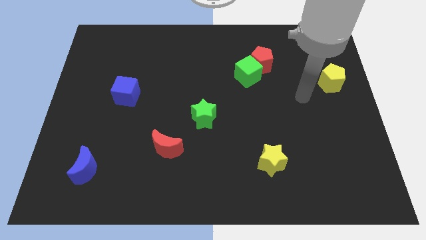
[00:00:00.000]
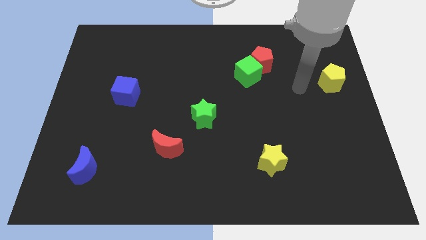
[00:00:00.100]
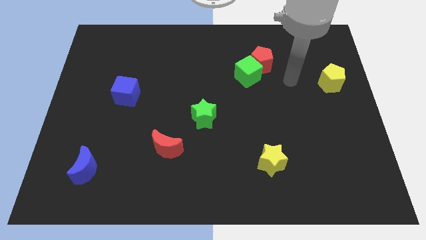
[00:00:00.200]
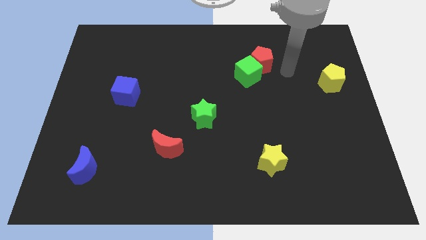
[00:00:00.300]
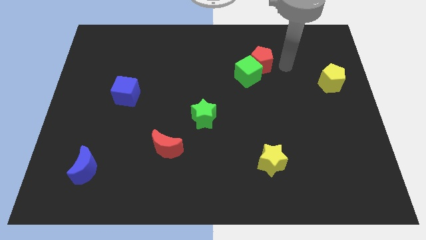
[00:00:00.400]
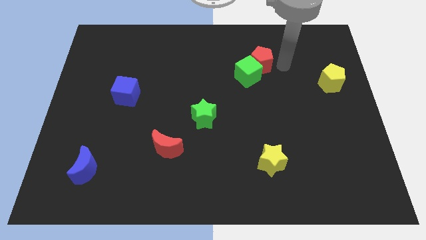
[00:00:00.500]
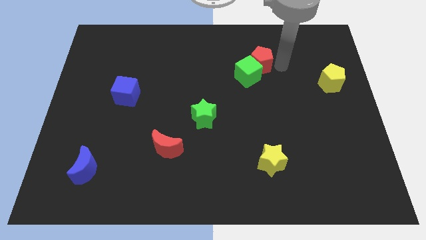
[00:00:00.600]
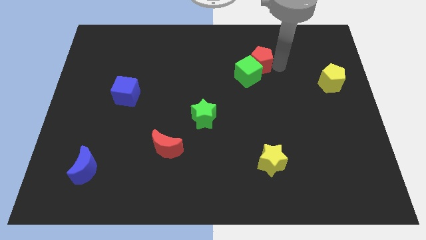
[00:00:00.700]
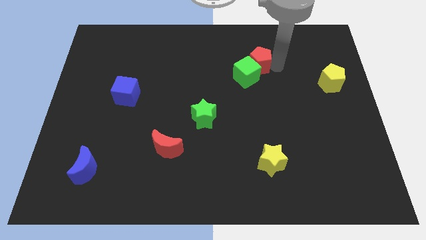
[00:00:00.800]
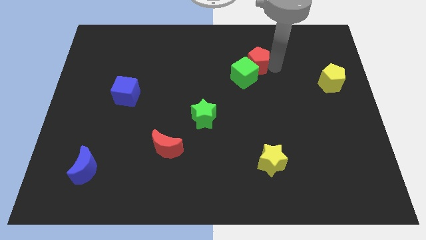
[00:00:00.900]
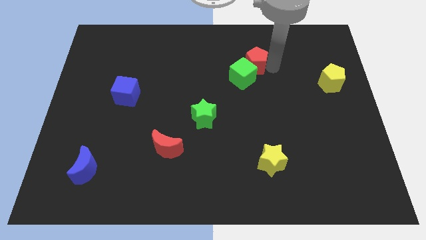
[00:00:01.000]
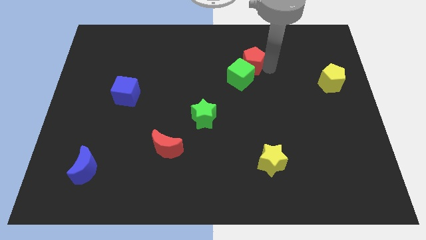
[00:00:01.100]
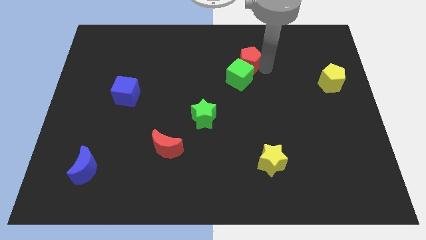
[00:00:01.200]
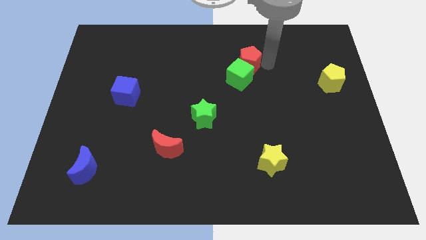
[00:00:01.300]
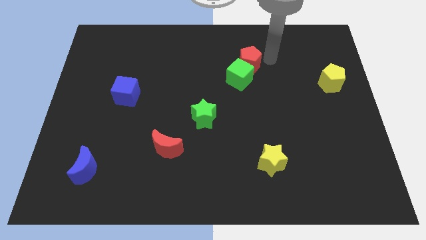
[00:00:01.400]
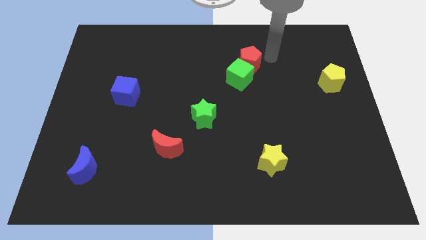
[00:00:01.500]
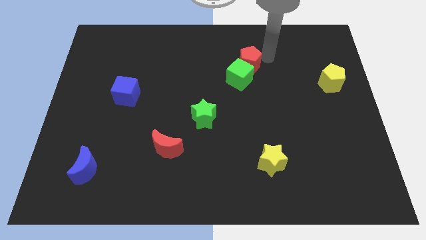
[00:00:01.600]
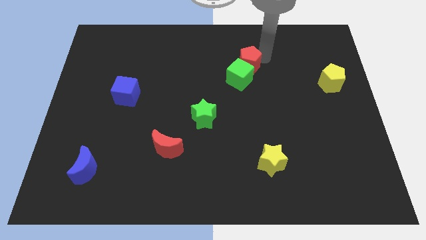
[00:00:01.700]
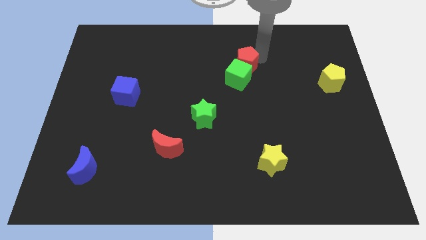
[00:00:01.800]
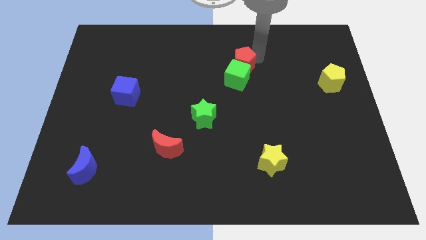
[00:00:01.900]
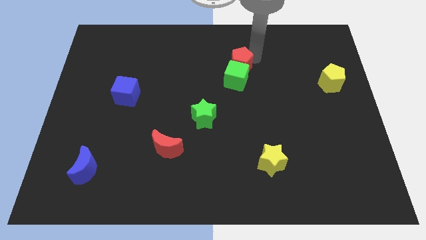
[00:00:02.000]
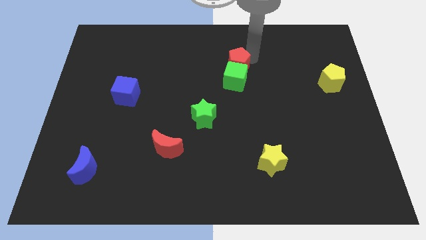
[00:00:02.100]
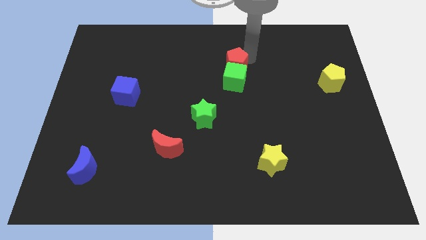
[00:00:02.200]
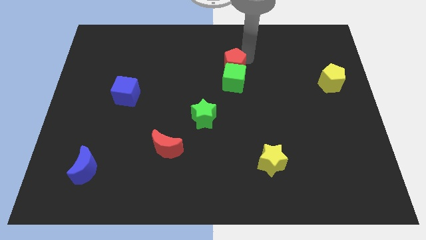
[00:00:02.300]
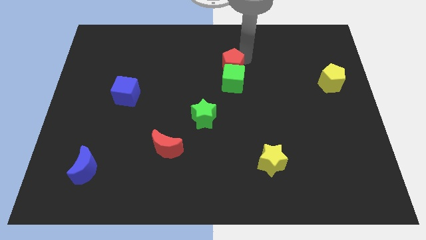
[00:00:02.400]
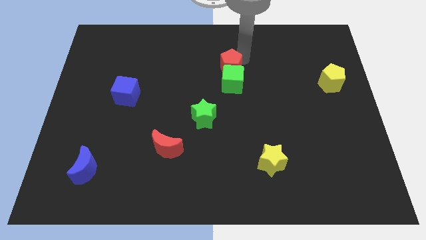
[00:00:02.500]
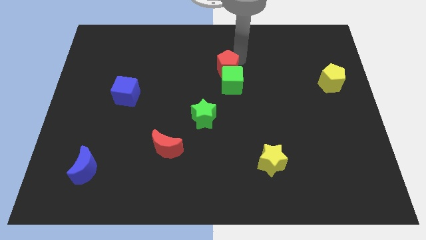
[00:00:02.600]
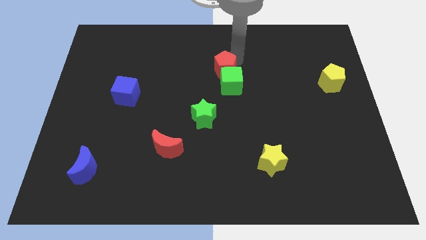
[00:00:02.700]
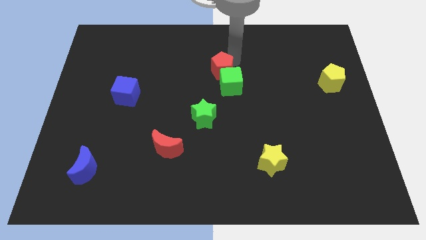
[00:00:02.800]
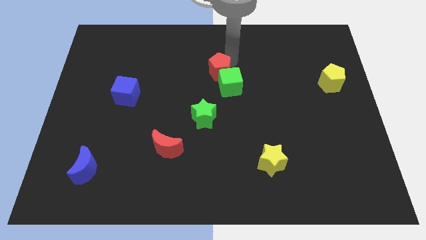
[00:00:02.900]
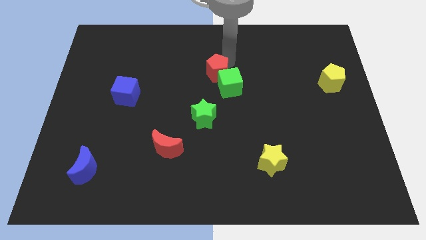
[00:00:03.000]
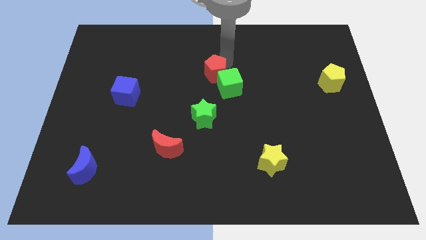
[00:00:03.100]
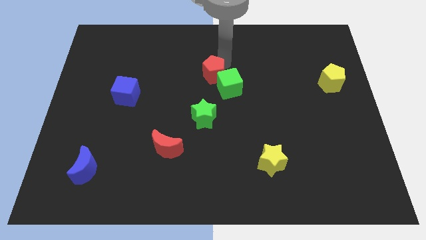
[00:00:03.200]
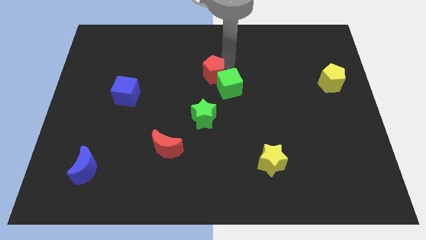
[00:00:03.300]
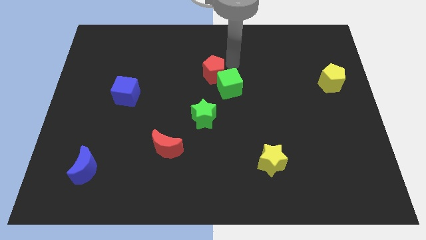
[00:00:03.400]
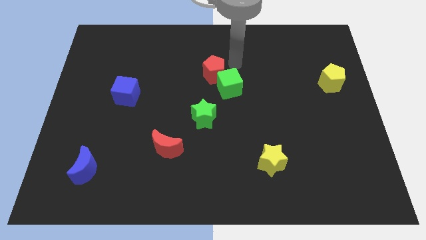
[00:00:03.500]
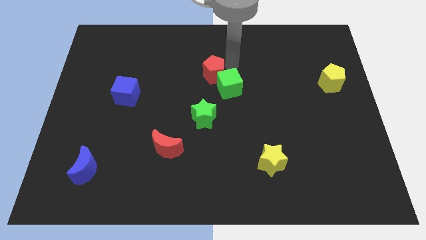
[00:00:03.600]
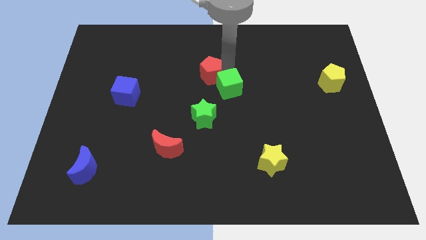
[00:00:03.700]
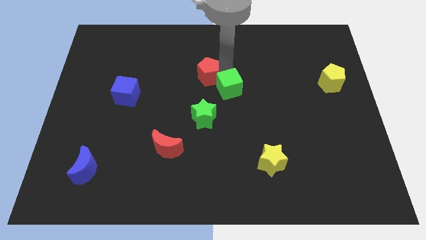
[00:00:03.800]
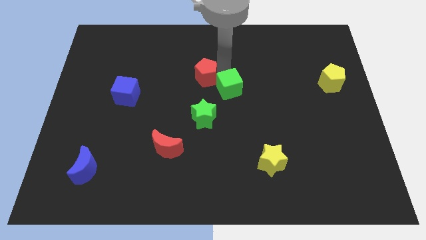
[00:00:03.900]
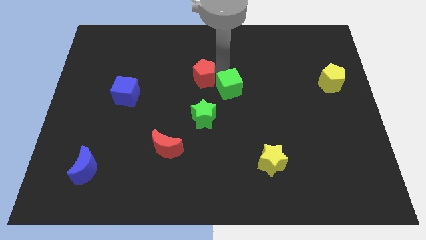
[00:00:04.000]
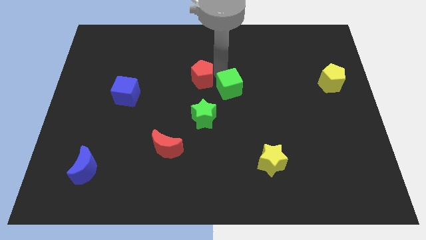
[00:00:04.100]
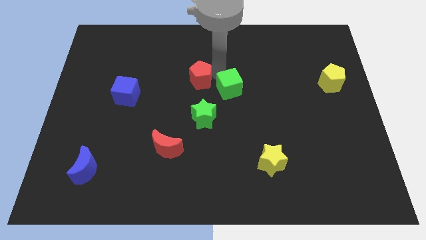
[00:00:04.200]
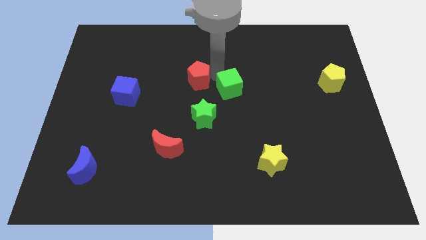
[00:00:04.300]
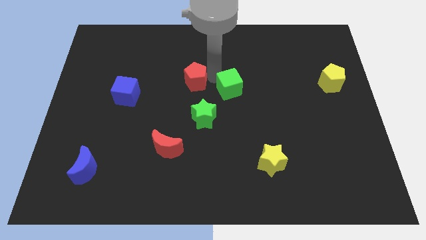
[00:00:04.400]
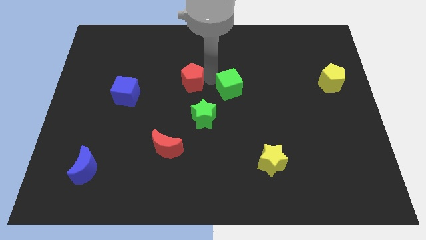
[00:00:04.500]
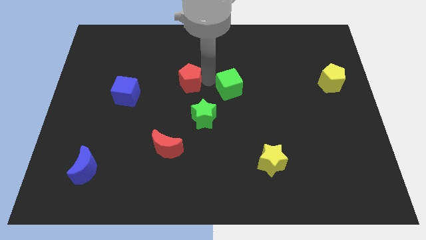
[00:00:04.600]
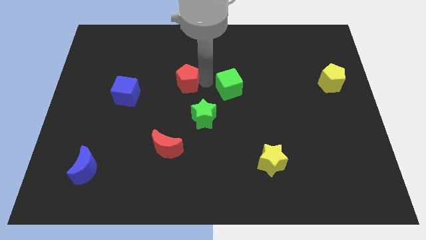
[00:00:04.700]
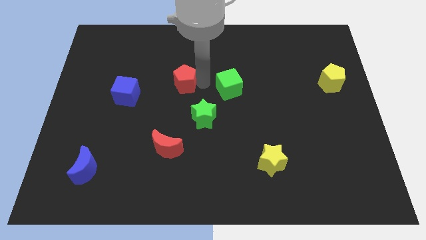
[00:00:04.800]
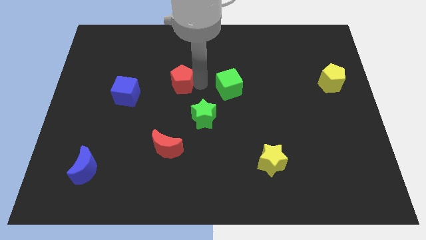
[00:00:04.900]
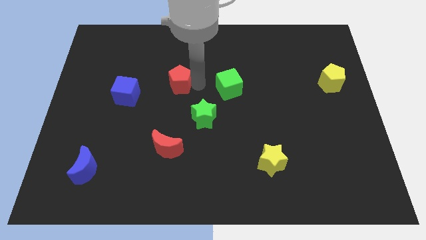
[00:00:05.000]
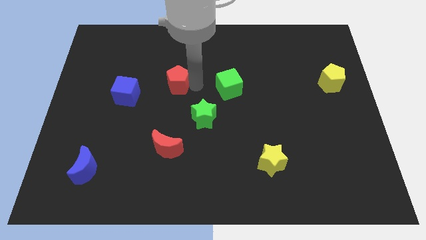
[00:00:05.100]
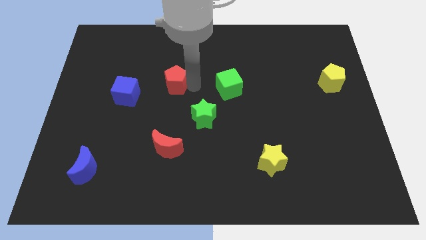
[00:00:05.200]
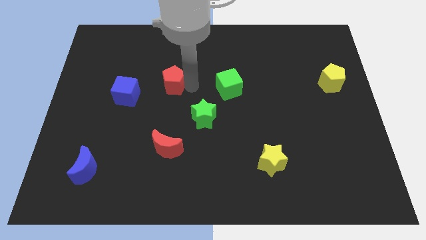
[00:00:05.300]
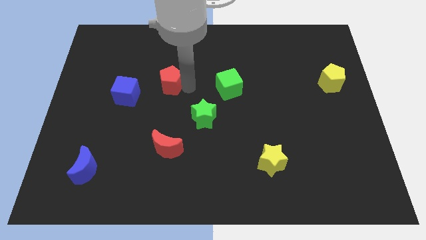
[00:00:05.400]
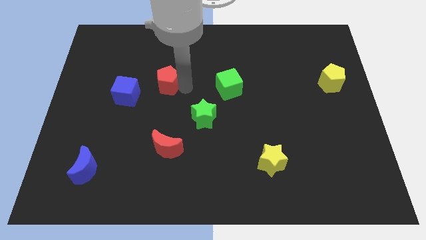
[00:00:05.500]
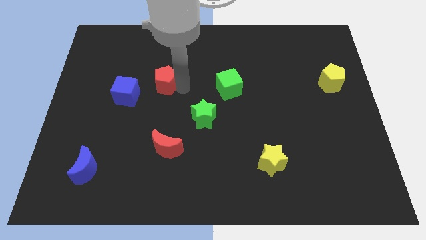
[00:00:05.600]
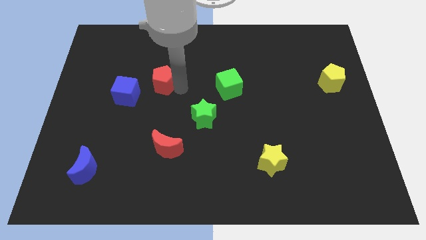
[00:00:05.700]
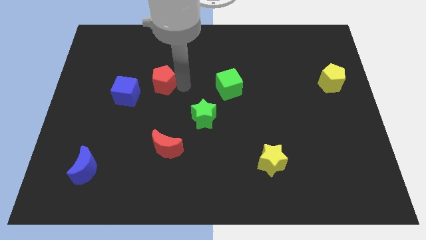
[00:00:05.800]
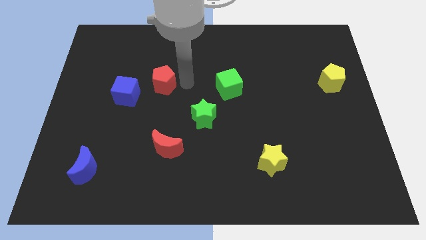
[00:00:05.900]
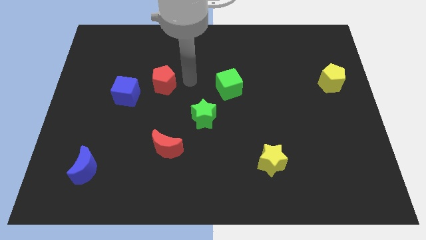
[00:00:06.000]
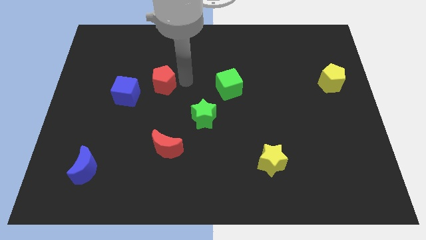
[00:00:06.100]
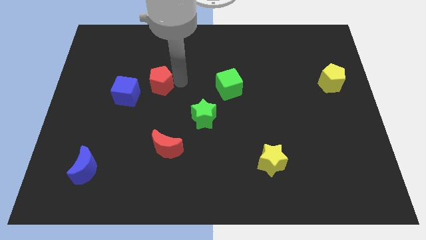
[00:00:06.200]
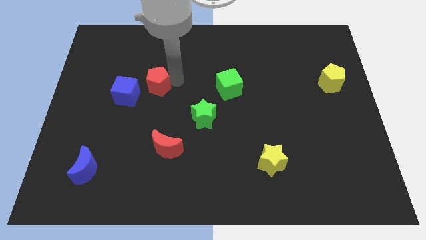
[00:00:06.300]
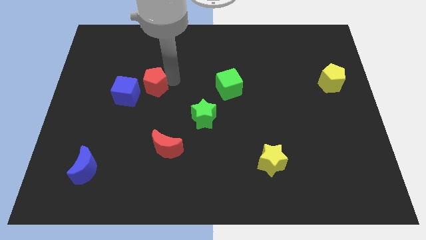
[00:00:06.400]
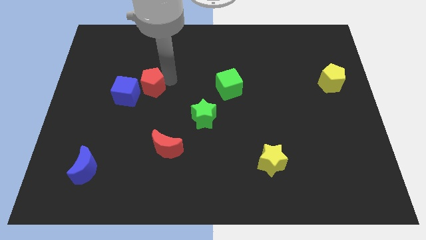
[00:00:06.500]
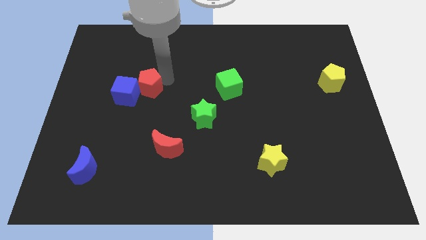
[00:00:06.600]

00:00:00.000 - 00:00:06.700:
push the red pentagon towards the blue cube
